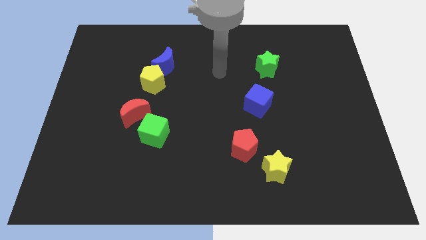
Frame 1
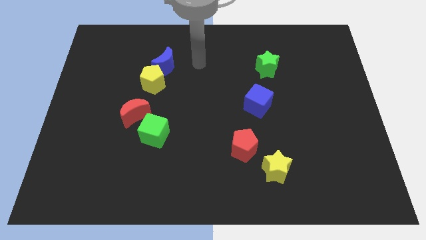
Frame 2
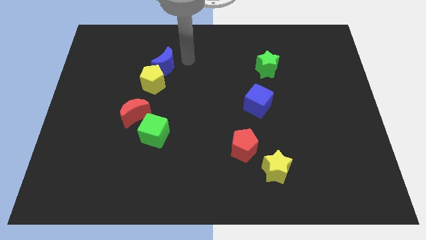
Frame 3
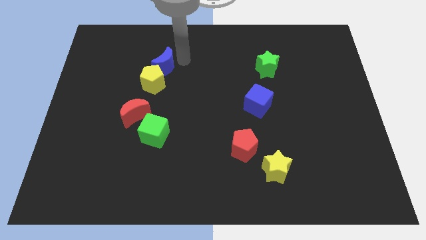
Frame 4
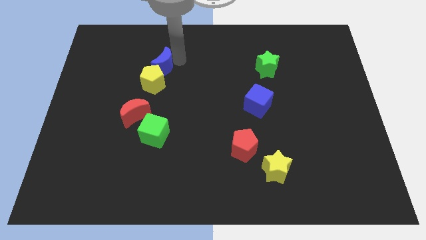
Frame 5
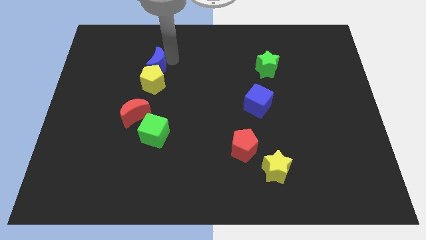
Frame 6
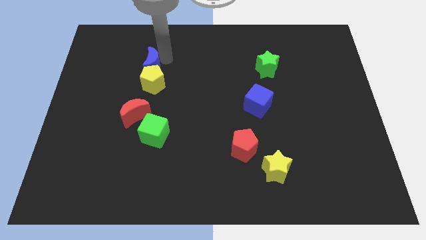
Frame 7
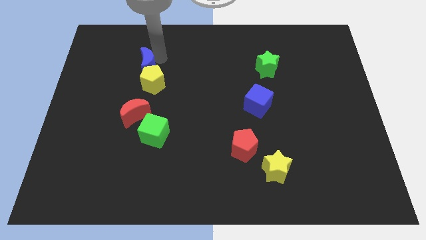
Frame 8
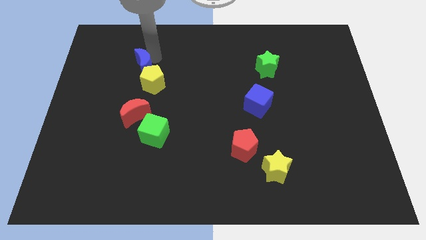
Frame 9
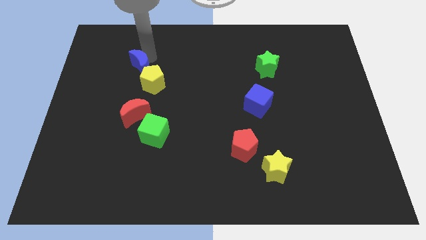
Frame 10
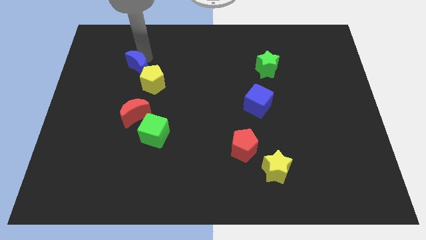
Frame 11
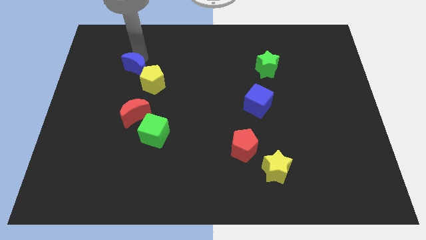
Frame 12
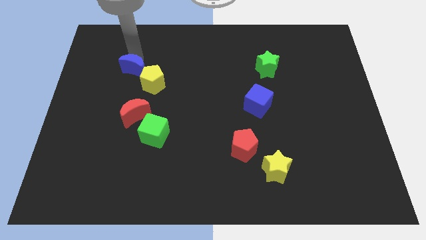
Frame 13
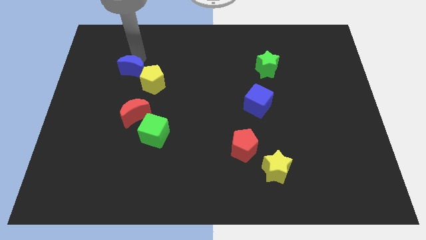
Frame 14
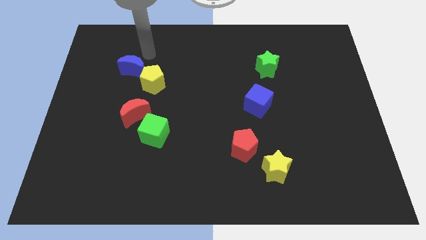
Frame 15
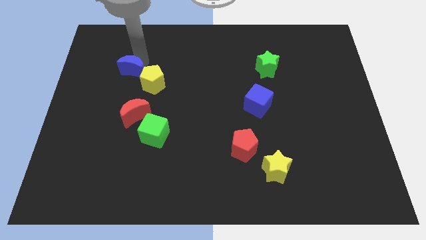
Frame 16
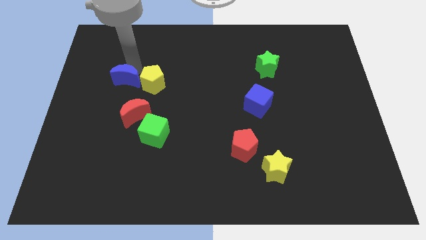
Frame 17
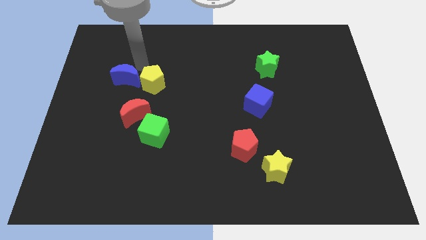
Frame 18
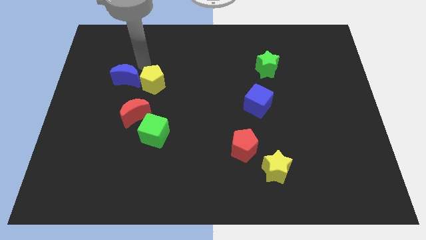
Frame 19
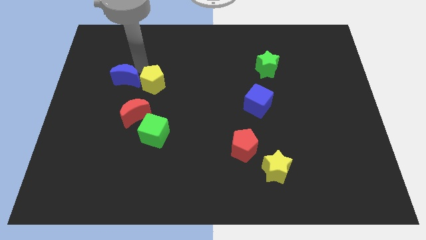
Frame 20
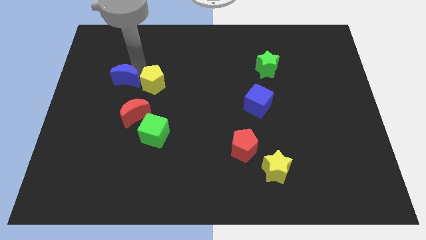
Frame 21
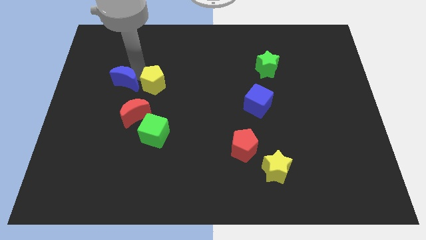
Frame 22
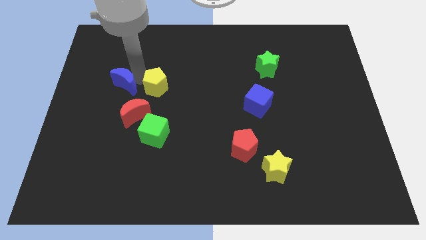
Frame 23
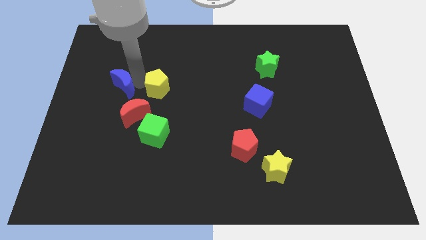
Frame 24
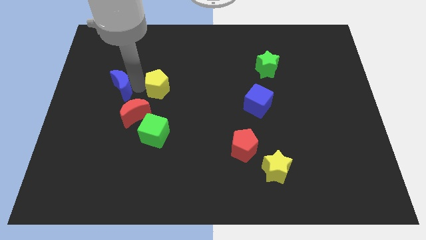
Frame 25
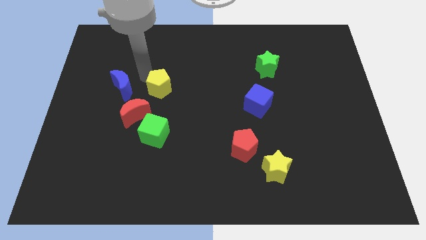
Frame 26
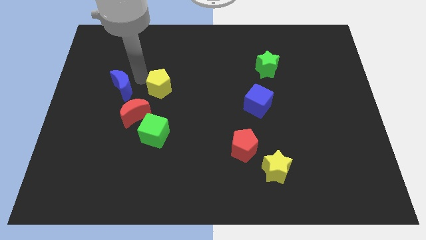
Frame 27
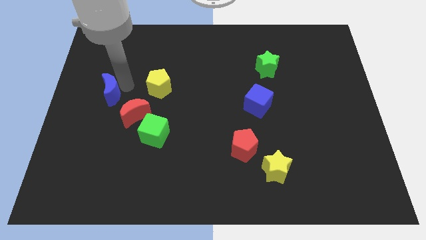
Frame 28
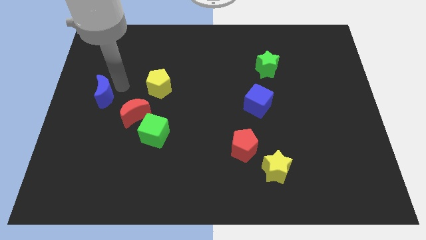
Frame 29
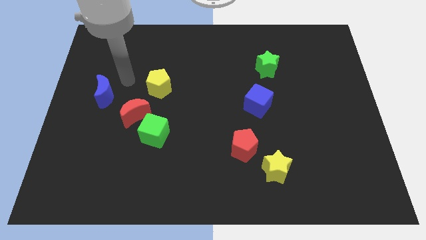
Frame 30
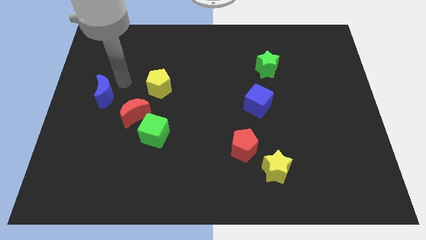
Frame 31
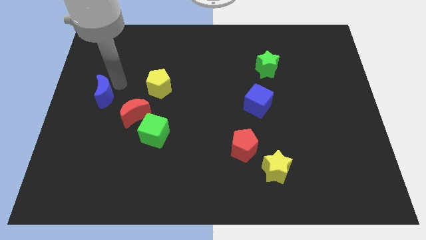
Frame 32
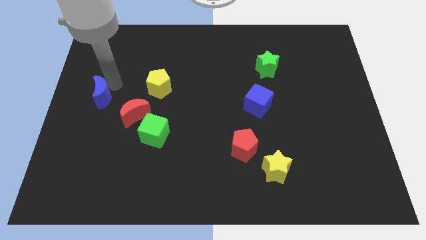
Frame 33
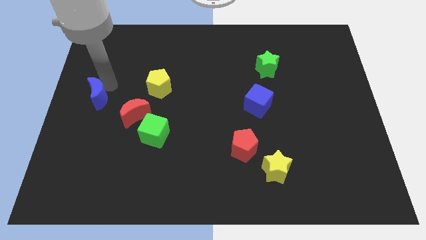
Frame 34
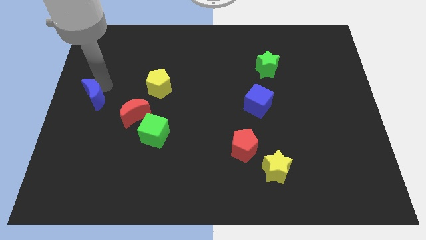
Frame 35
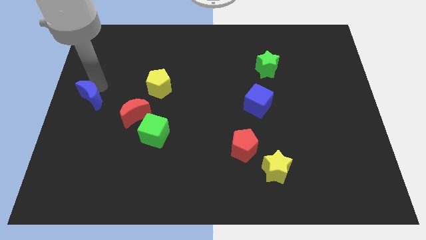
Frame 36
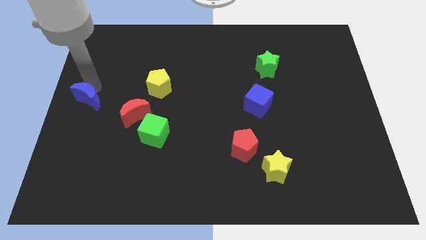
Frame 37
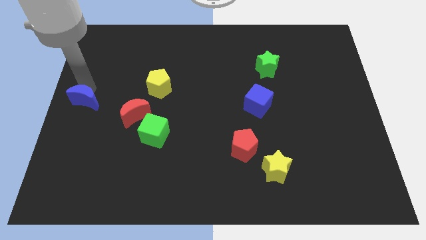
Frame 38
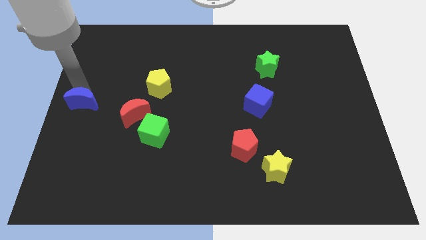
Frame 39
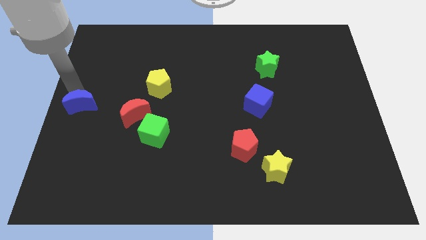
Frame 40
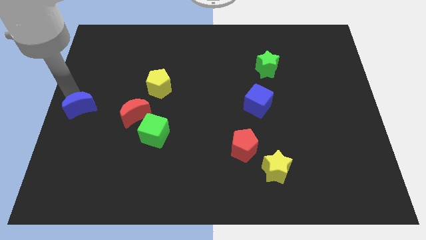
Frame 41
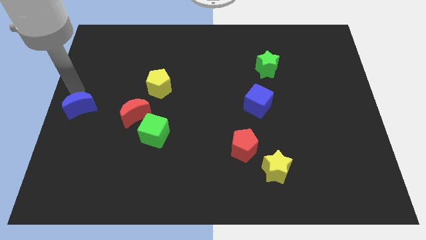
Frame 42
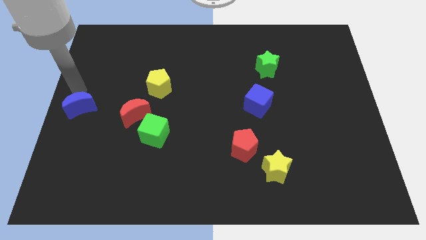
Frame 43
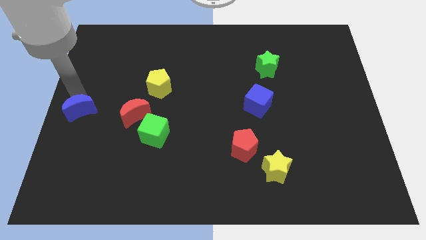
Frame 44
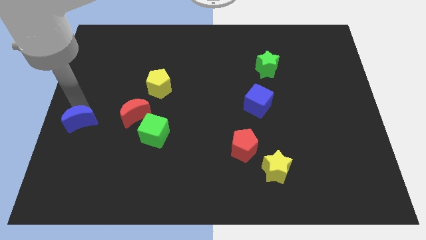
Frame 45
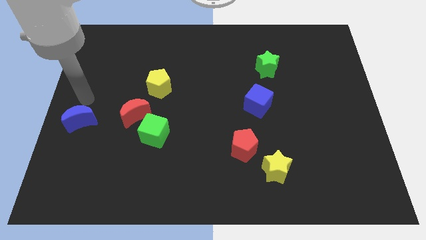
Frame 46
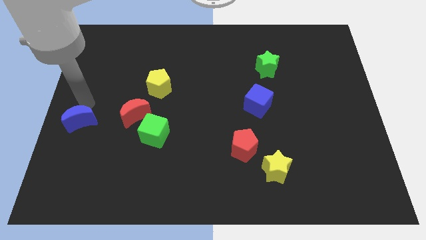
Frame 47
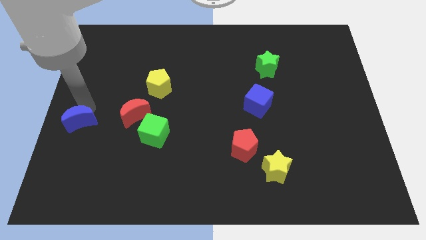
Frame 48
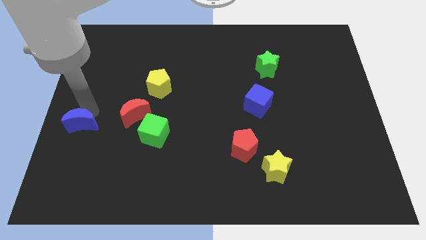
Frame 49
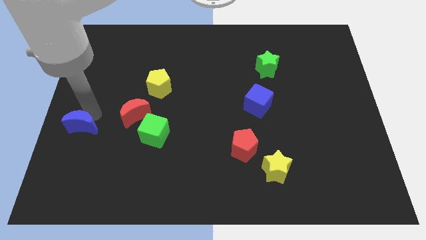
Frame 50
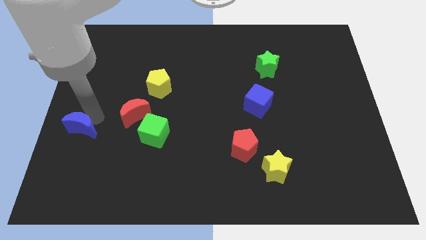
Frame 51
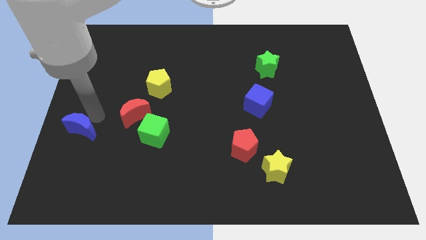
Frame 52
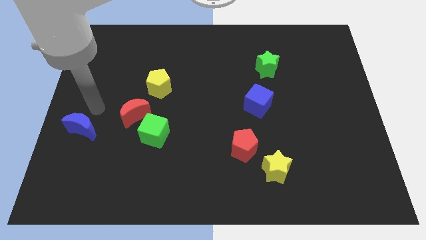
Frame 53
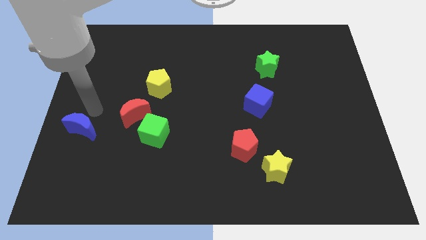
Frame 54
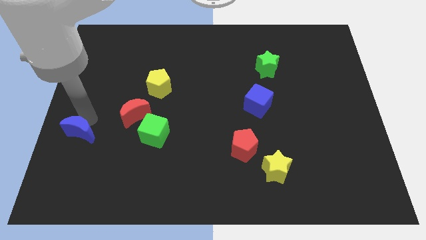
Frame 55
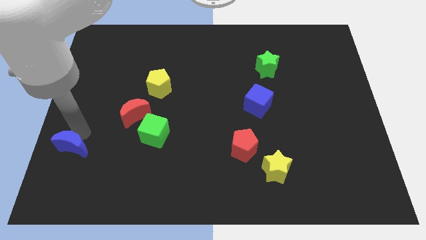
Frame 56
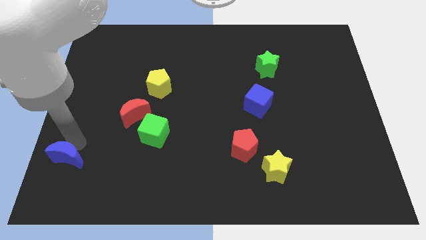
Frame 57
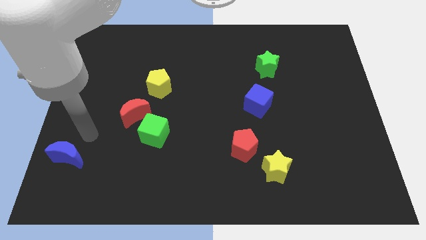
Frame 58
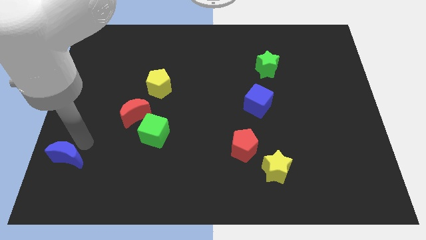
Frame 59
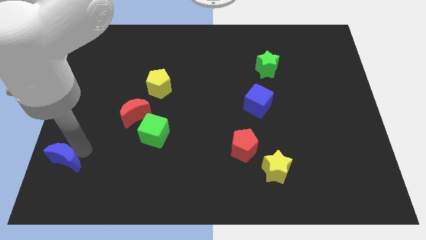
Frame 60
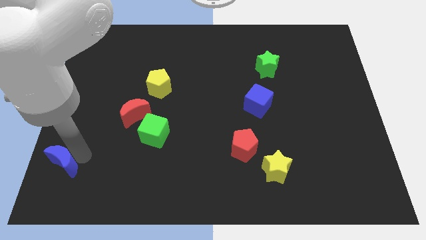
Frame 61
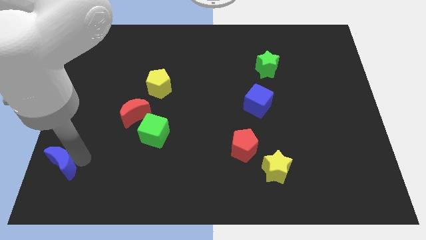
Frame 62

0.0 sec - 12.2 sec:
put the blue moon to the bottom left corner

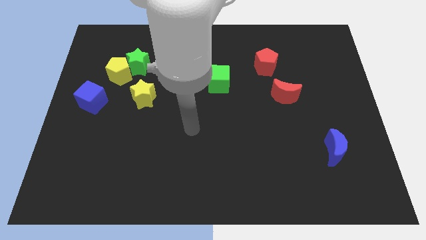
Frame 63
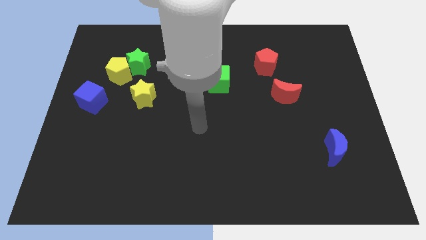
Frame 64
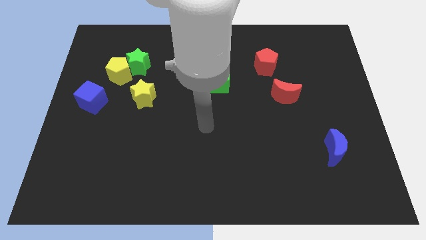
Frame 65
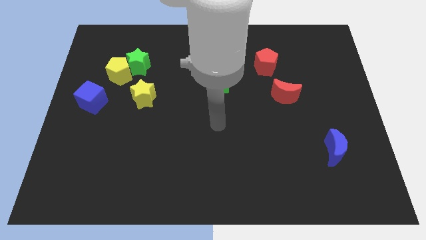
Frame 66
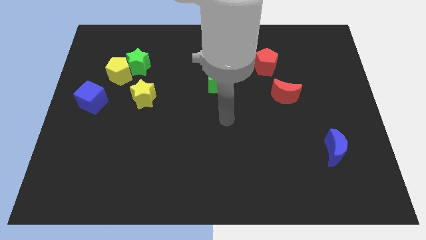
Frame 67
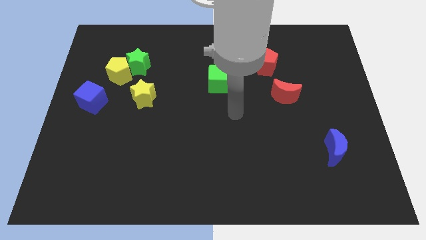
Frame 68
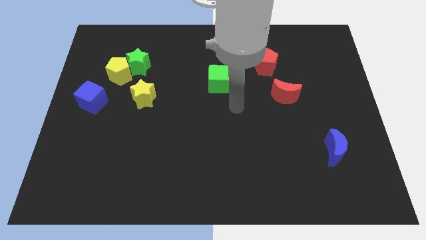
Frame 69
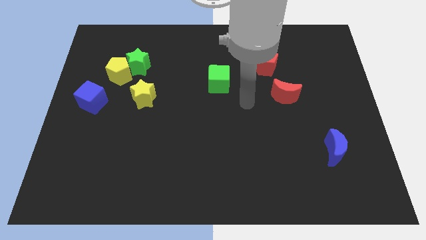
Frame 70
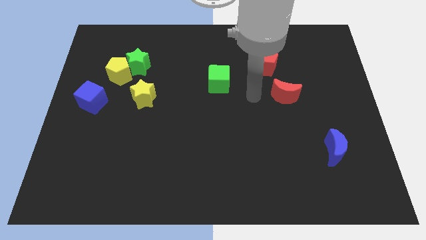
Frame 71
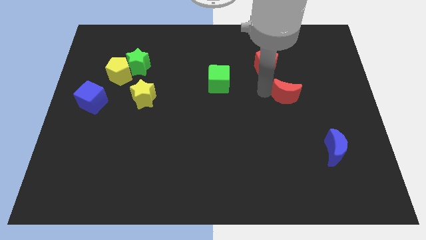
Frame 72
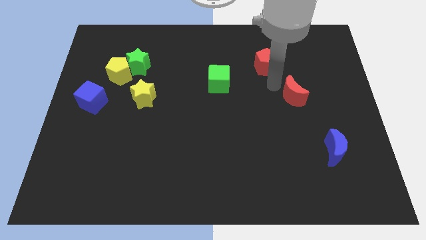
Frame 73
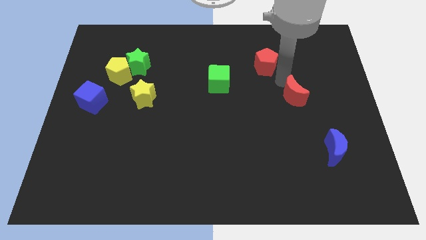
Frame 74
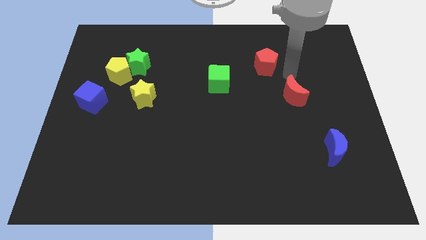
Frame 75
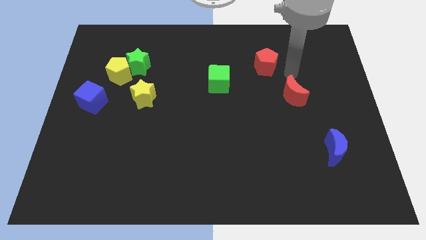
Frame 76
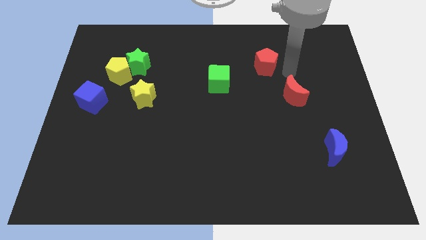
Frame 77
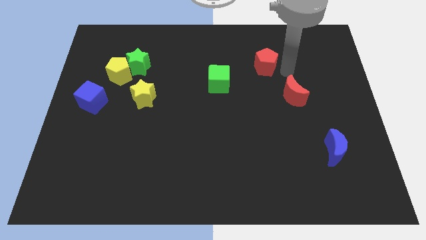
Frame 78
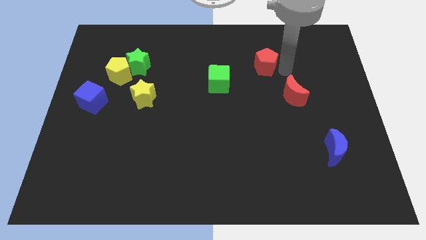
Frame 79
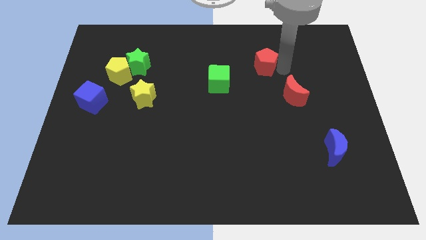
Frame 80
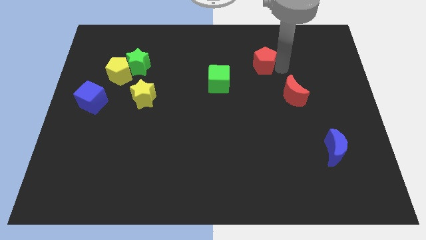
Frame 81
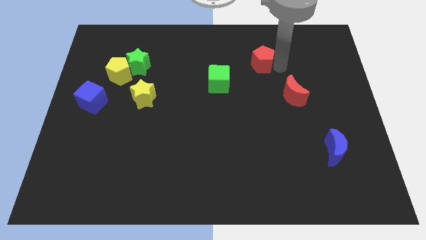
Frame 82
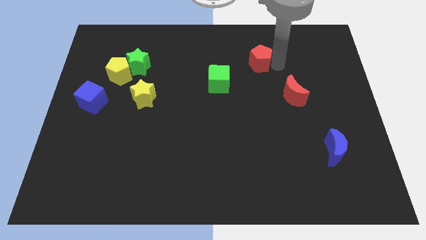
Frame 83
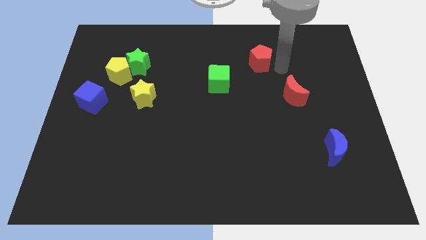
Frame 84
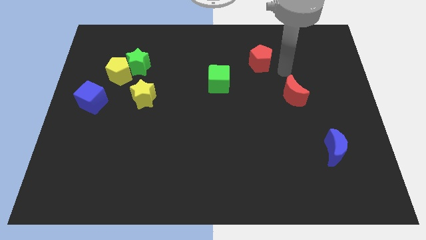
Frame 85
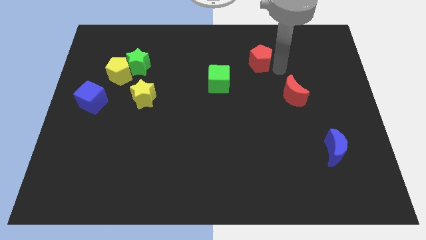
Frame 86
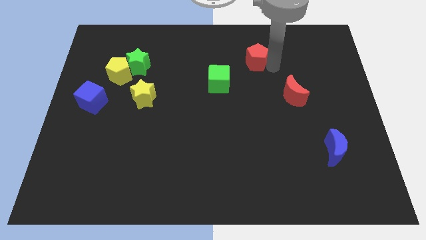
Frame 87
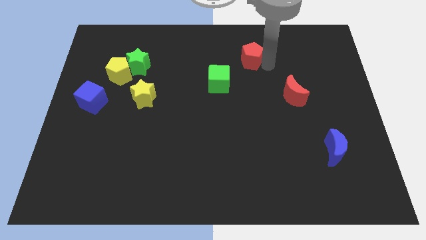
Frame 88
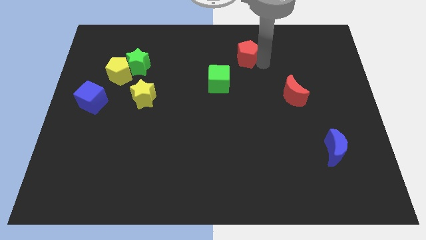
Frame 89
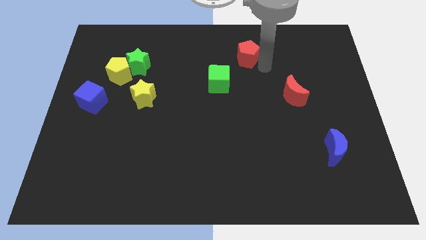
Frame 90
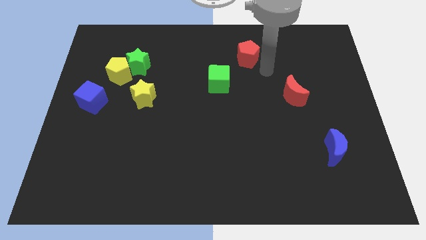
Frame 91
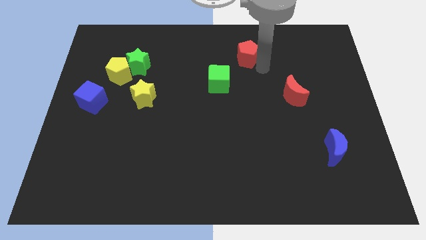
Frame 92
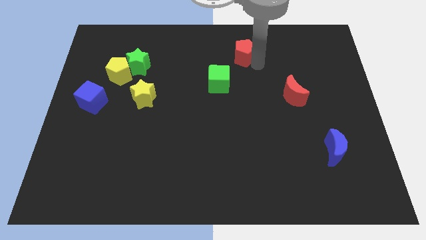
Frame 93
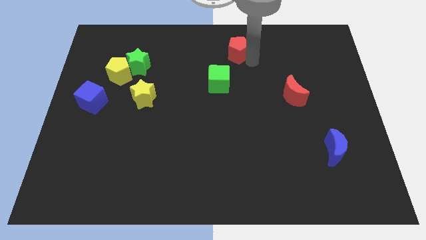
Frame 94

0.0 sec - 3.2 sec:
put the red pentagon to the towards your base
